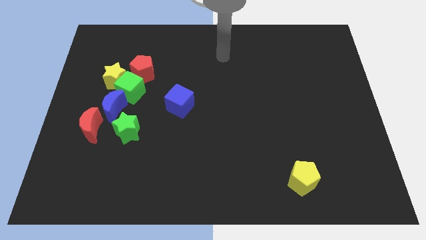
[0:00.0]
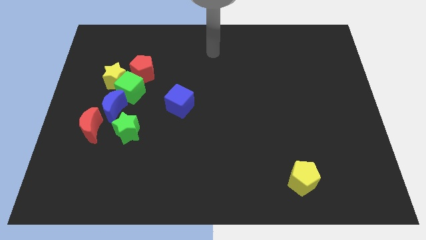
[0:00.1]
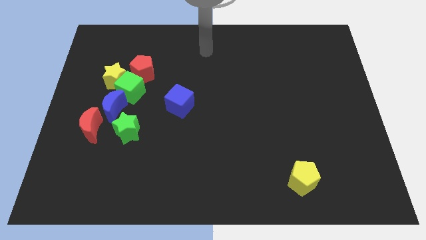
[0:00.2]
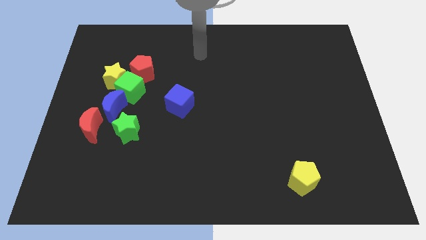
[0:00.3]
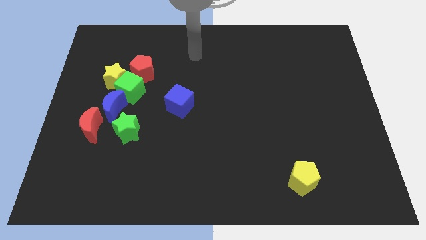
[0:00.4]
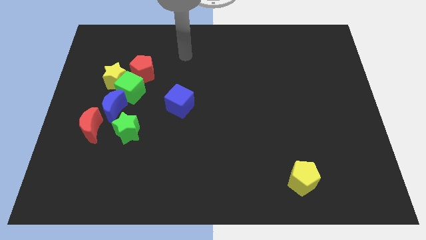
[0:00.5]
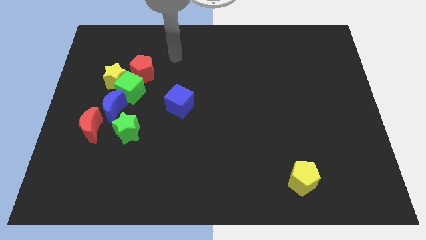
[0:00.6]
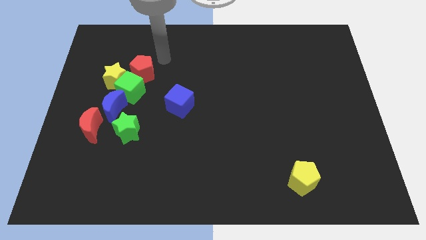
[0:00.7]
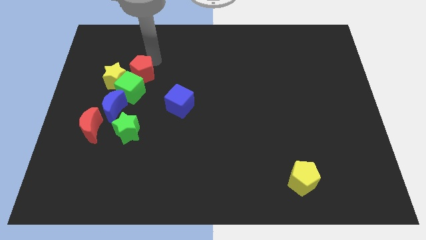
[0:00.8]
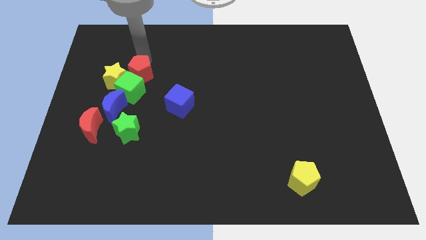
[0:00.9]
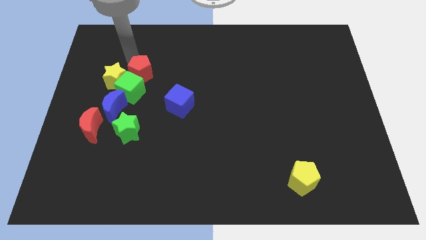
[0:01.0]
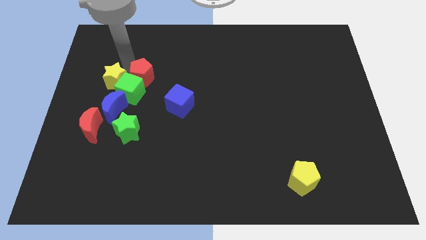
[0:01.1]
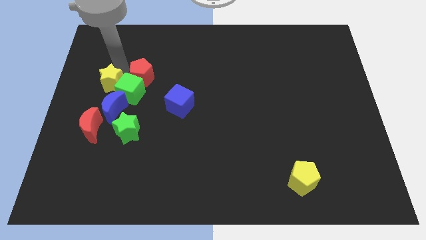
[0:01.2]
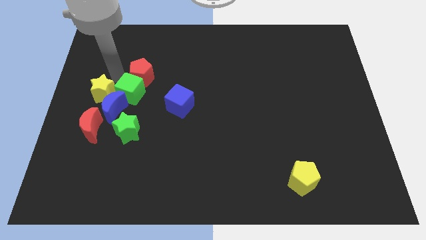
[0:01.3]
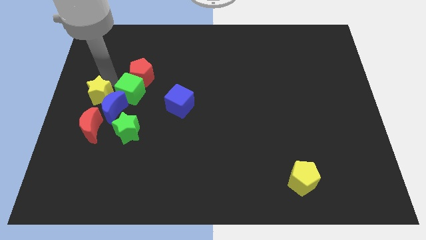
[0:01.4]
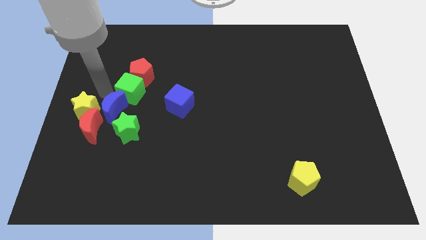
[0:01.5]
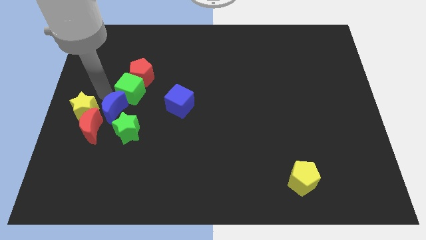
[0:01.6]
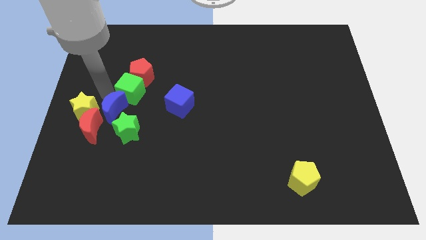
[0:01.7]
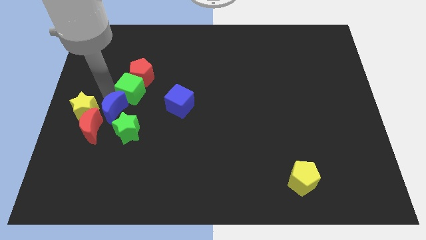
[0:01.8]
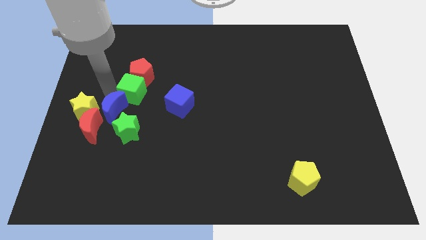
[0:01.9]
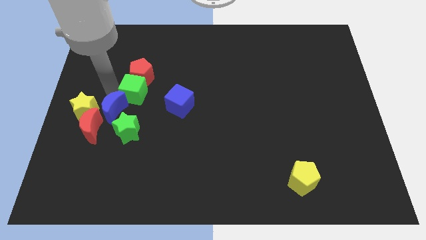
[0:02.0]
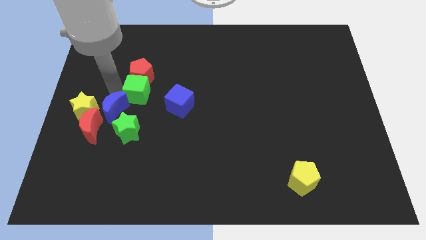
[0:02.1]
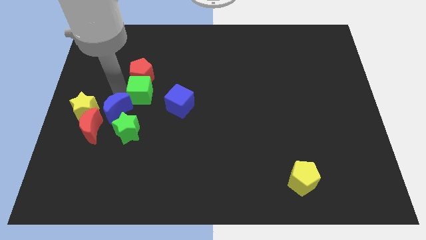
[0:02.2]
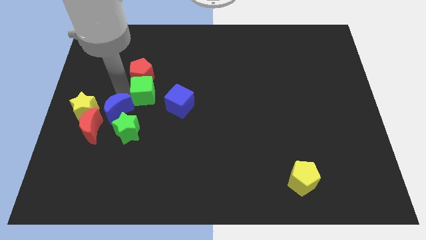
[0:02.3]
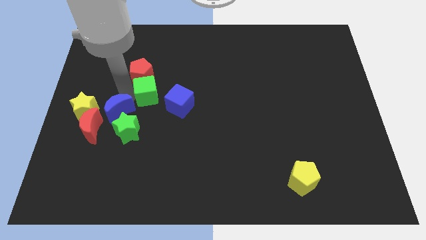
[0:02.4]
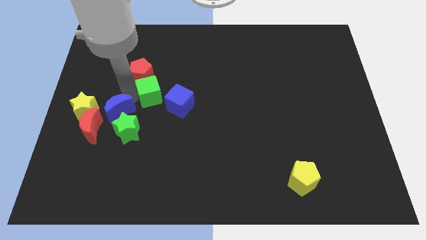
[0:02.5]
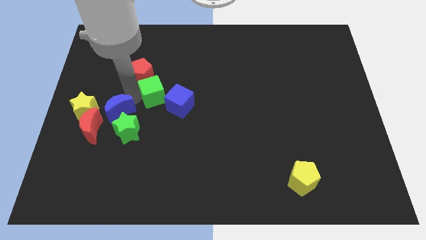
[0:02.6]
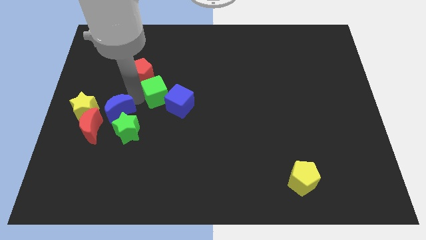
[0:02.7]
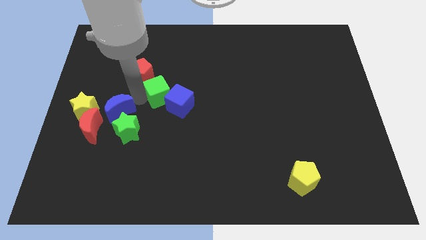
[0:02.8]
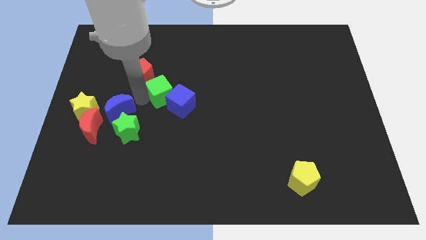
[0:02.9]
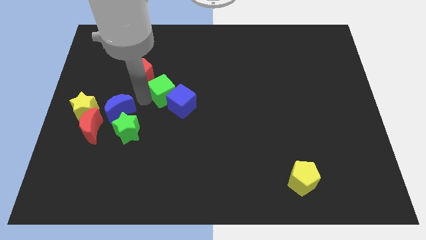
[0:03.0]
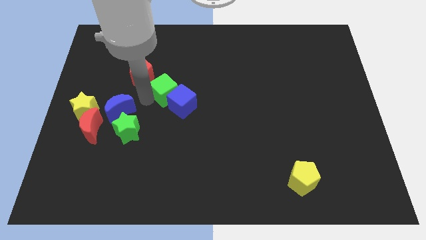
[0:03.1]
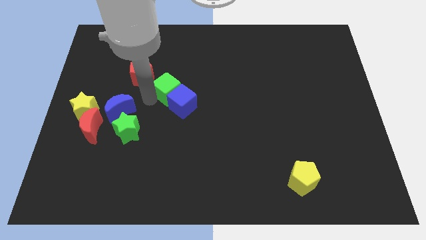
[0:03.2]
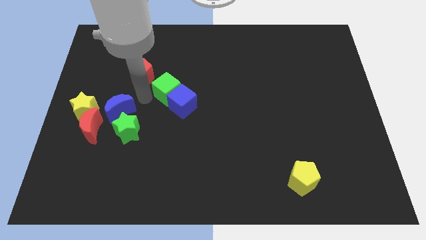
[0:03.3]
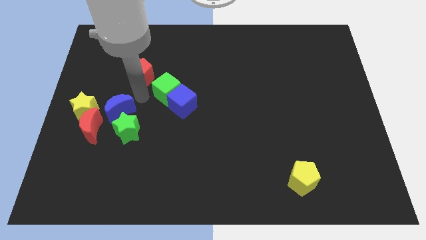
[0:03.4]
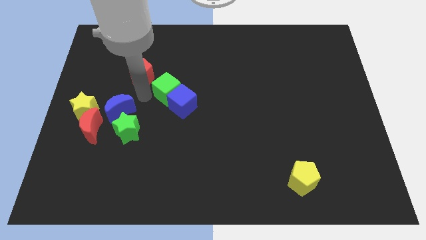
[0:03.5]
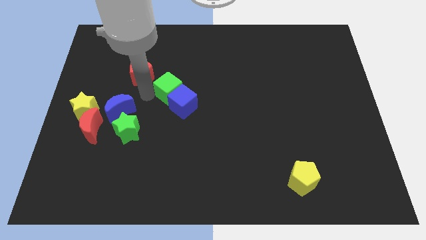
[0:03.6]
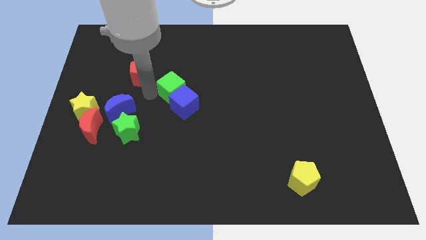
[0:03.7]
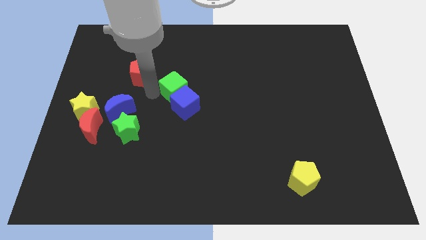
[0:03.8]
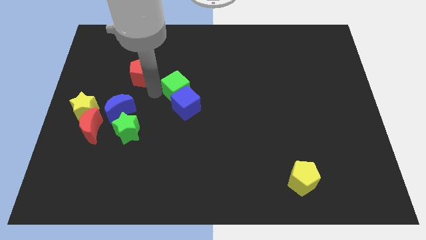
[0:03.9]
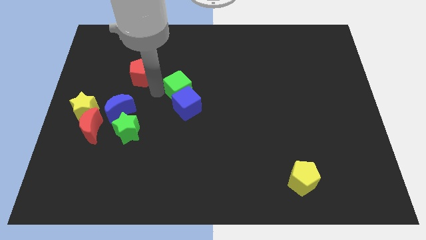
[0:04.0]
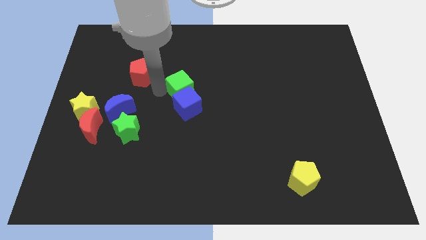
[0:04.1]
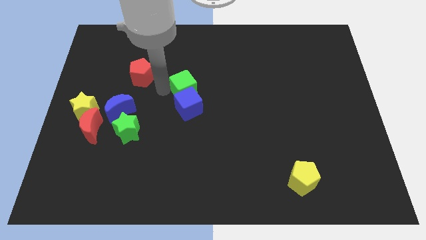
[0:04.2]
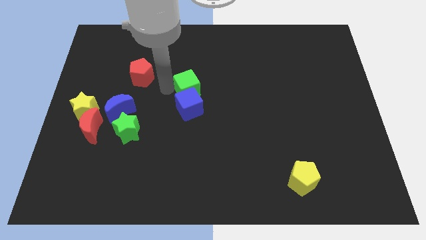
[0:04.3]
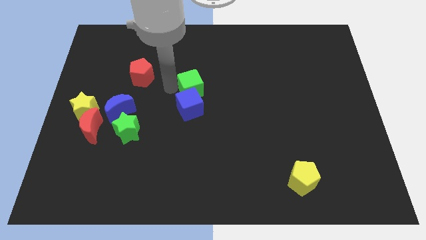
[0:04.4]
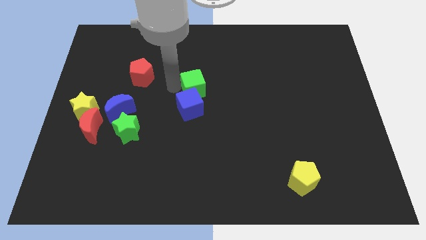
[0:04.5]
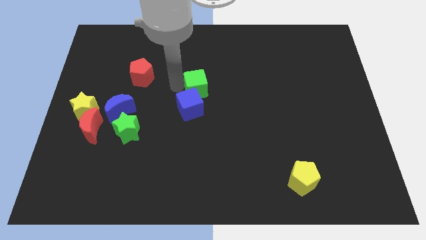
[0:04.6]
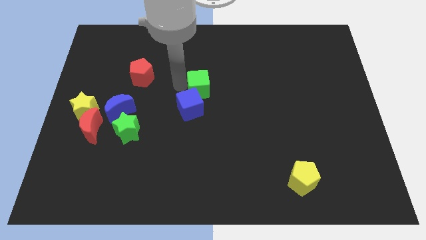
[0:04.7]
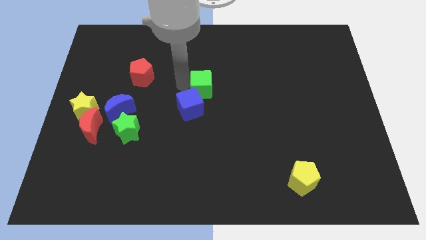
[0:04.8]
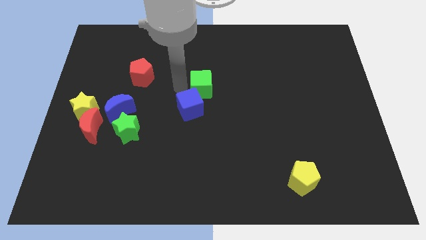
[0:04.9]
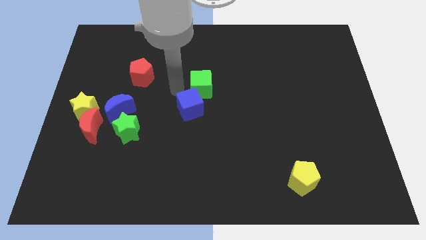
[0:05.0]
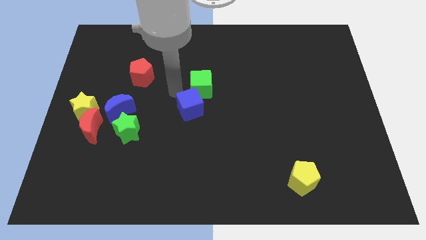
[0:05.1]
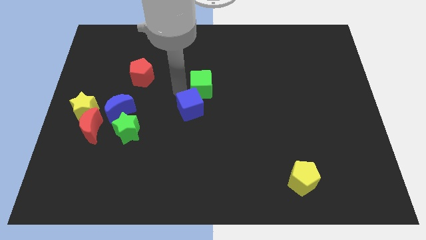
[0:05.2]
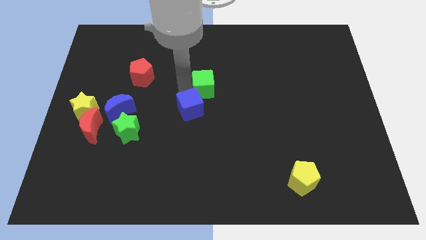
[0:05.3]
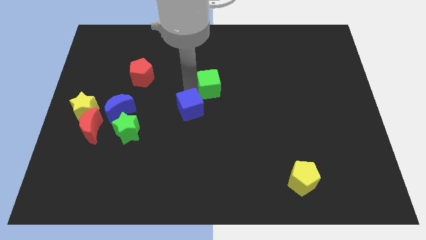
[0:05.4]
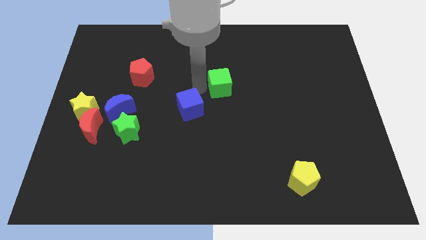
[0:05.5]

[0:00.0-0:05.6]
slide the green cube right

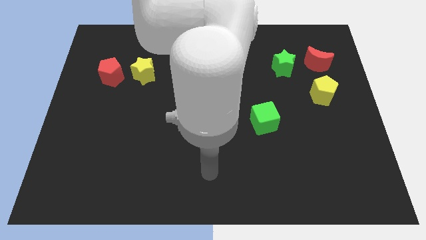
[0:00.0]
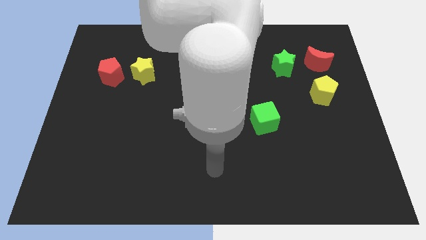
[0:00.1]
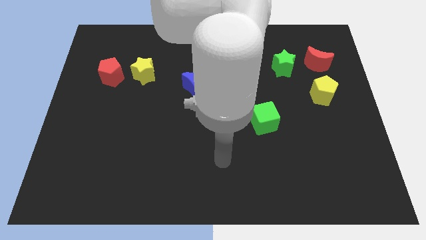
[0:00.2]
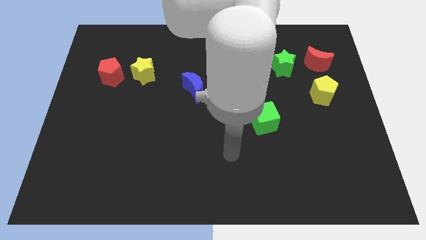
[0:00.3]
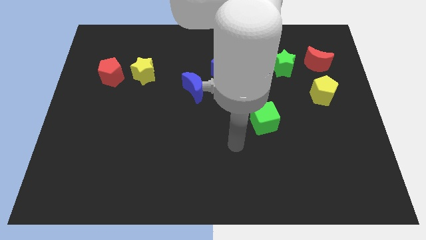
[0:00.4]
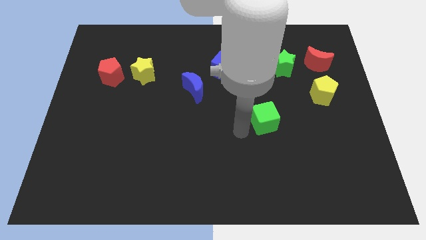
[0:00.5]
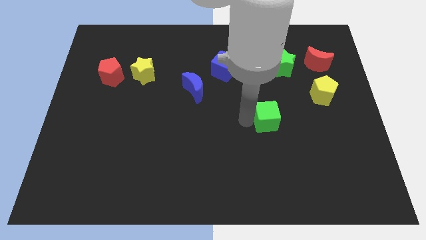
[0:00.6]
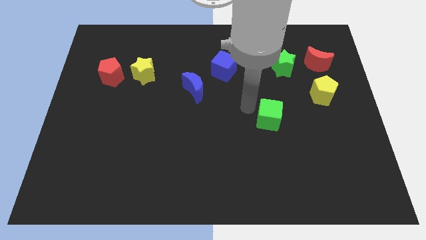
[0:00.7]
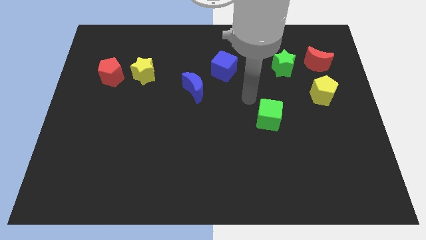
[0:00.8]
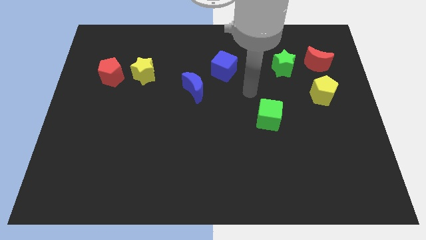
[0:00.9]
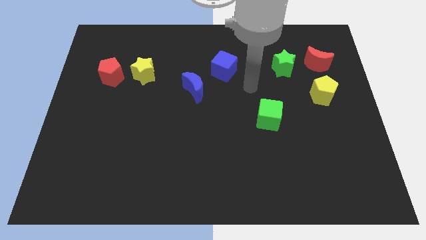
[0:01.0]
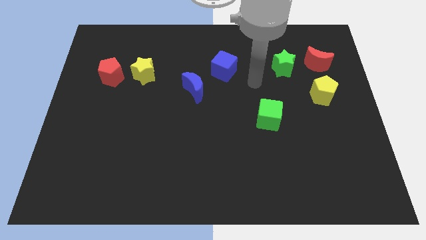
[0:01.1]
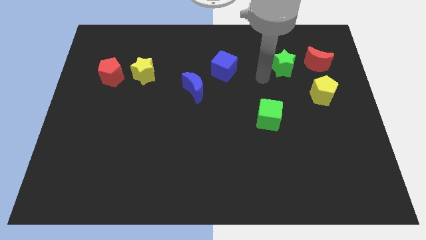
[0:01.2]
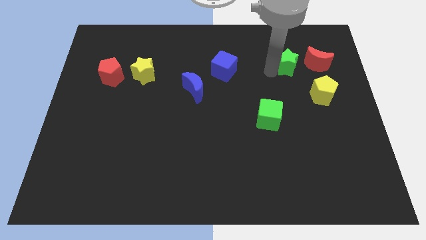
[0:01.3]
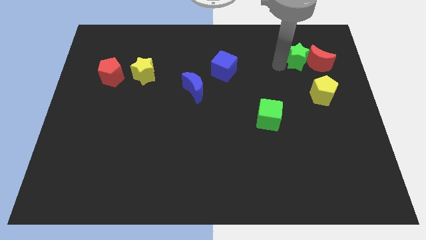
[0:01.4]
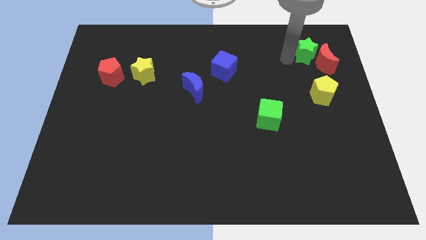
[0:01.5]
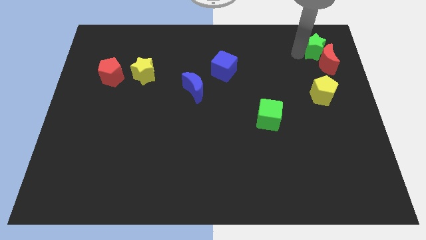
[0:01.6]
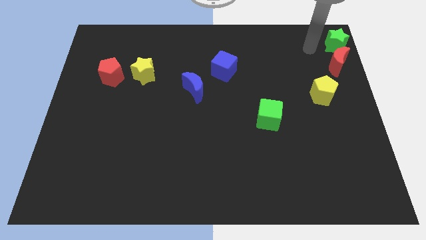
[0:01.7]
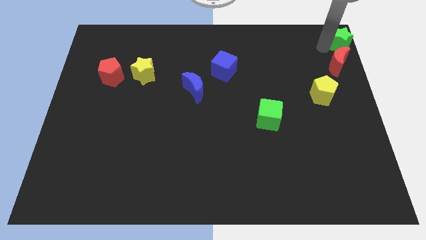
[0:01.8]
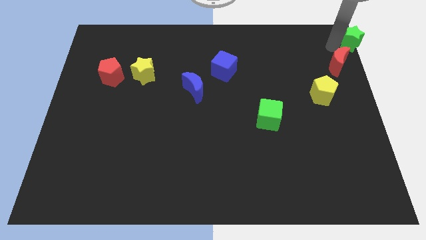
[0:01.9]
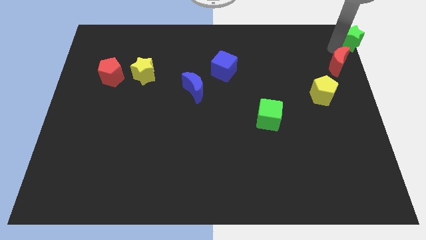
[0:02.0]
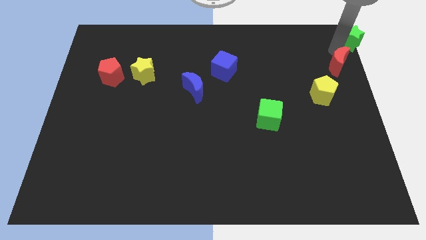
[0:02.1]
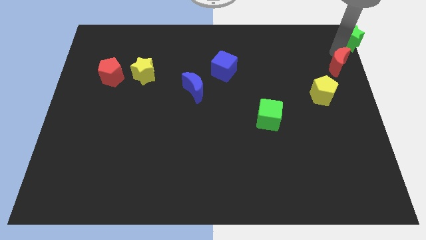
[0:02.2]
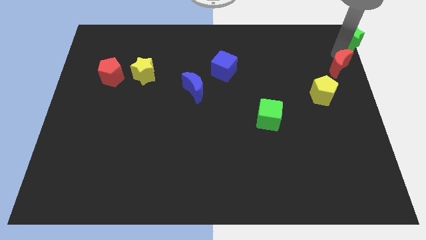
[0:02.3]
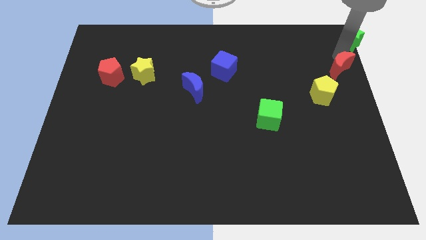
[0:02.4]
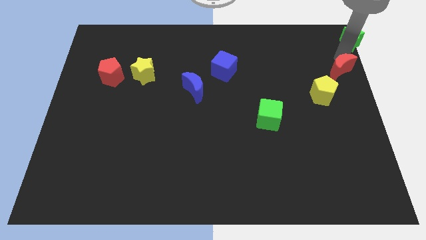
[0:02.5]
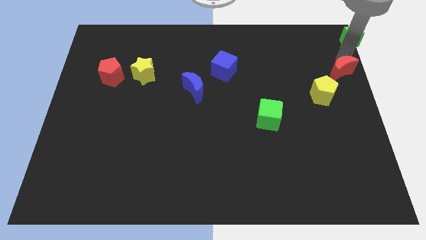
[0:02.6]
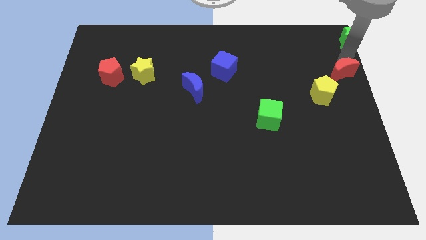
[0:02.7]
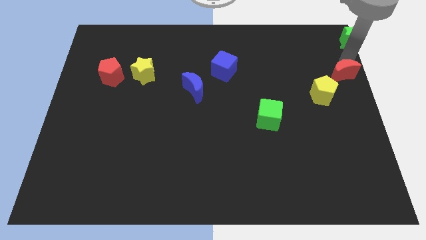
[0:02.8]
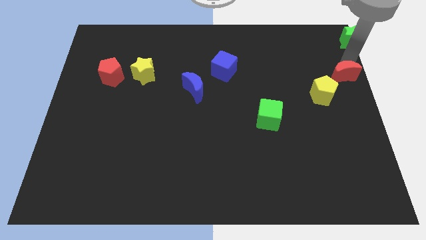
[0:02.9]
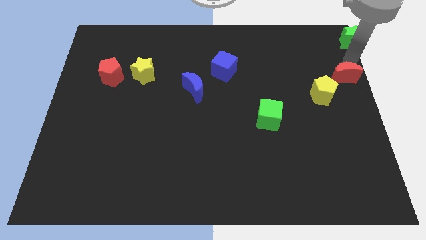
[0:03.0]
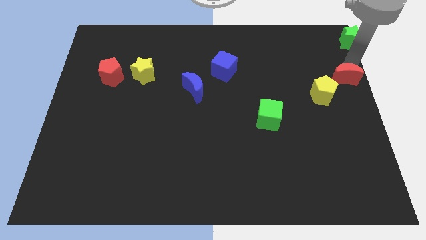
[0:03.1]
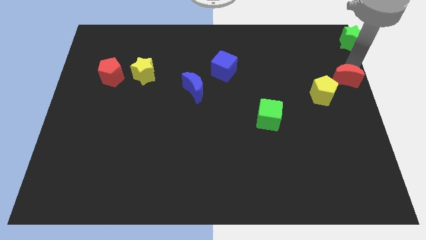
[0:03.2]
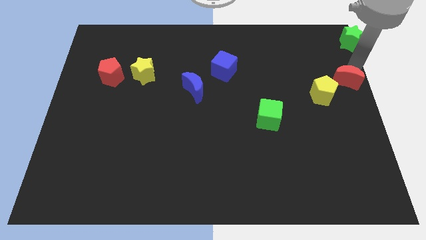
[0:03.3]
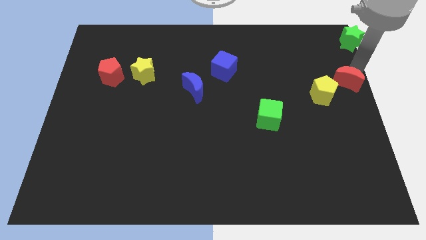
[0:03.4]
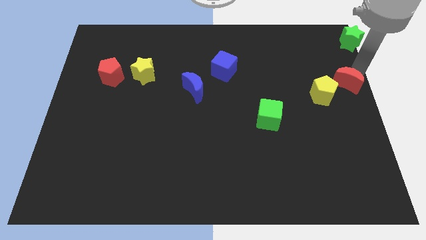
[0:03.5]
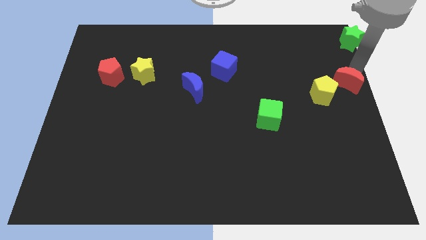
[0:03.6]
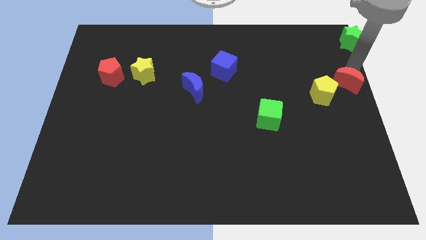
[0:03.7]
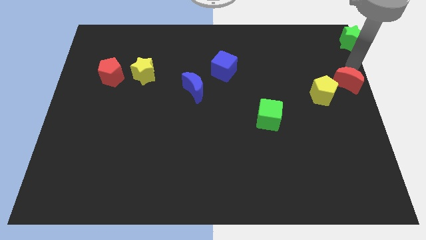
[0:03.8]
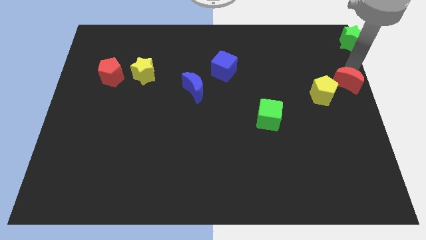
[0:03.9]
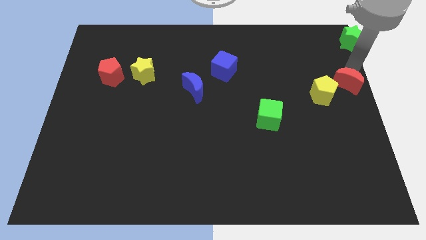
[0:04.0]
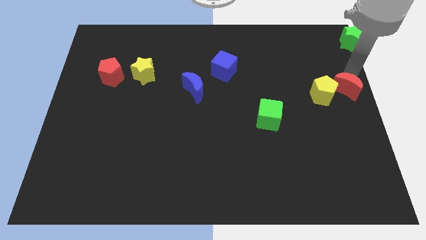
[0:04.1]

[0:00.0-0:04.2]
slide the red moon a little bit down
